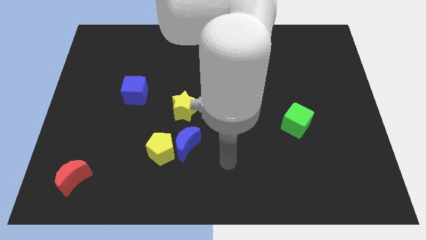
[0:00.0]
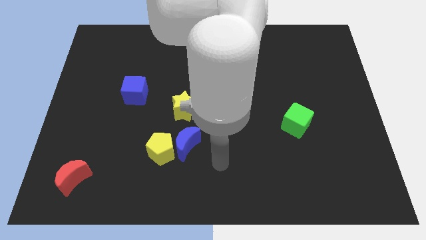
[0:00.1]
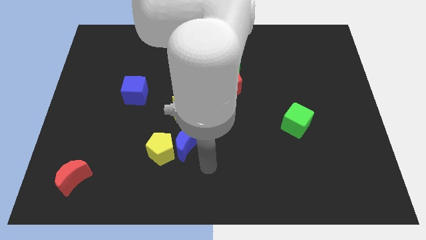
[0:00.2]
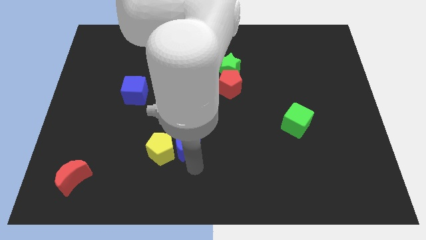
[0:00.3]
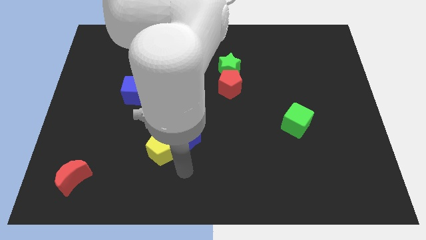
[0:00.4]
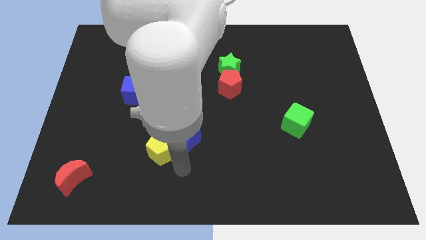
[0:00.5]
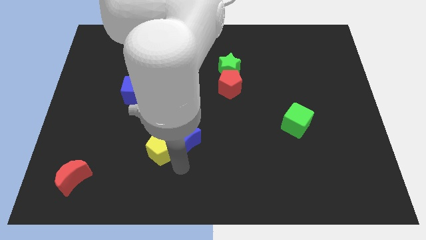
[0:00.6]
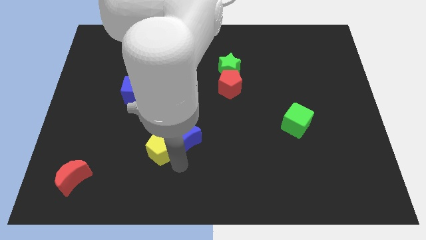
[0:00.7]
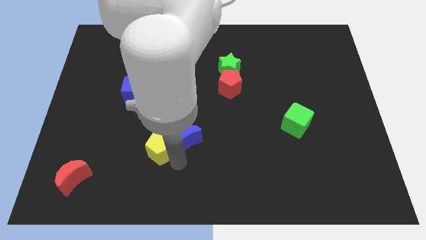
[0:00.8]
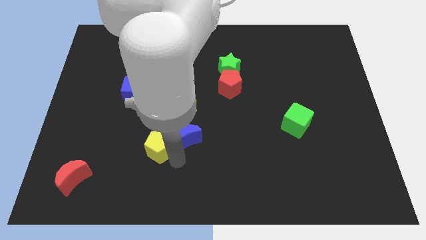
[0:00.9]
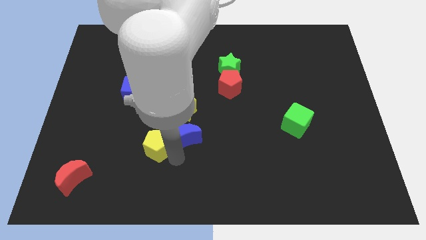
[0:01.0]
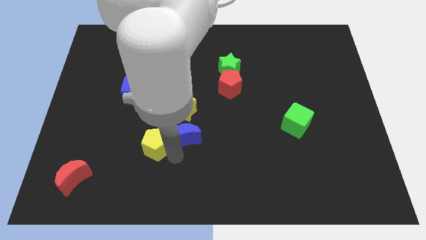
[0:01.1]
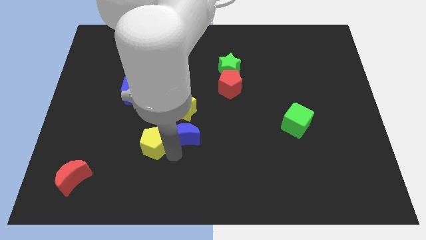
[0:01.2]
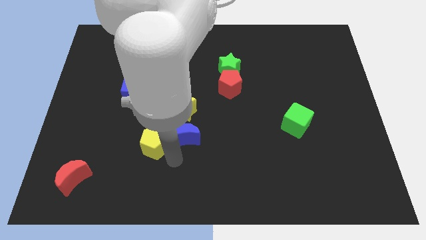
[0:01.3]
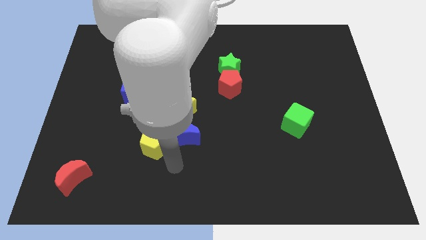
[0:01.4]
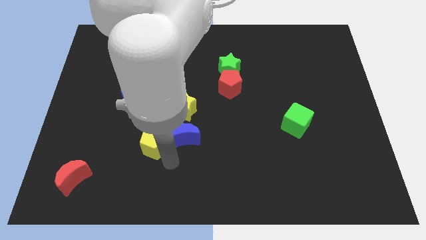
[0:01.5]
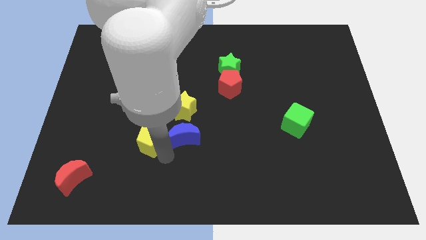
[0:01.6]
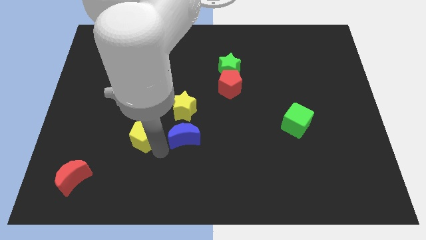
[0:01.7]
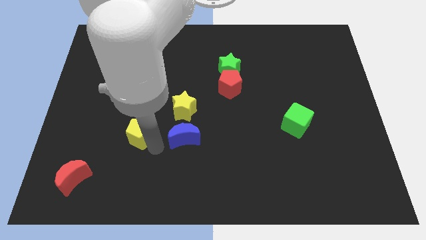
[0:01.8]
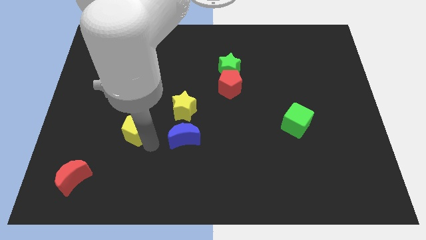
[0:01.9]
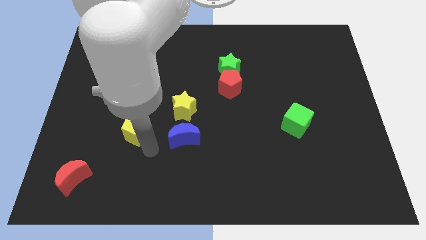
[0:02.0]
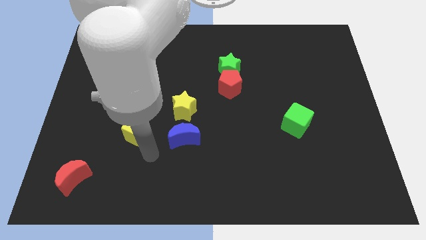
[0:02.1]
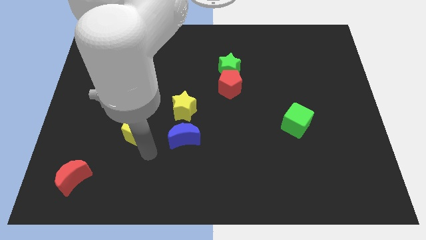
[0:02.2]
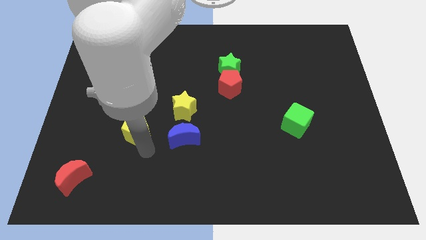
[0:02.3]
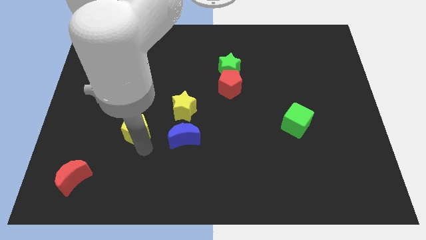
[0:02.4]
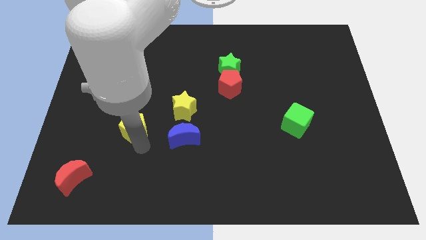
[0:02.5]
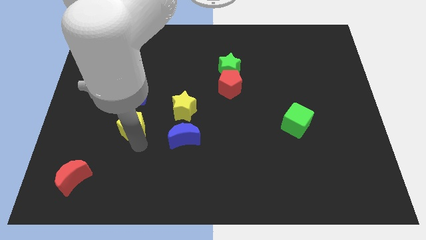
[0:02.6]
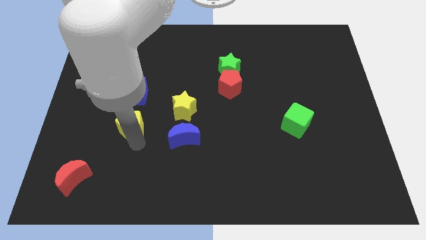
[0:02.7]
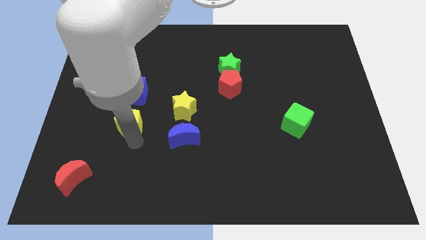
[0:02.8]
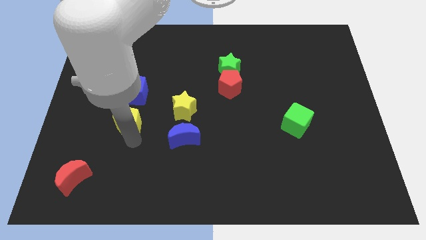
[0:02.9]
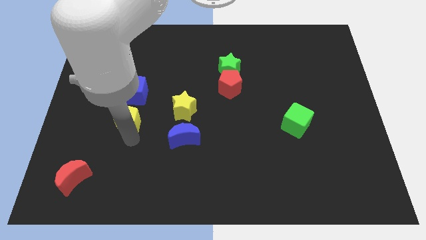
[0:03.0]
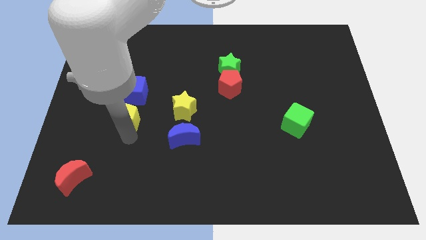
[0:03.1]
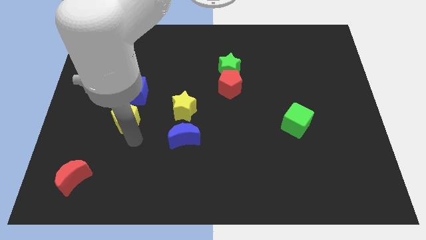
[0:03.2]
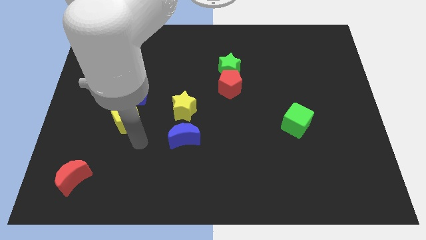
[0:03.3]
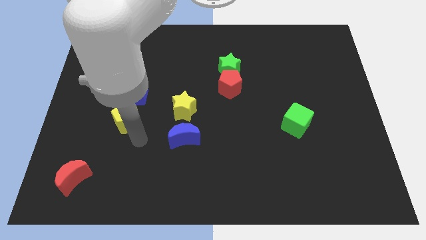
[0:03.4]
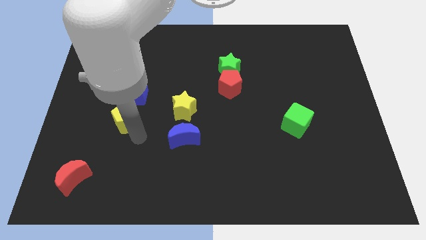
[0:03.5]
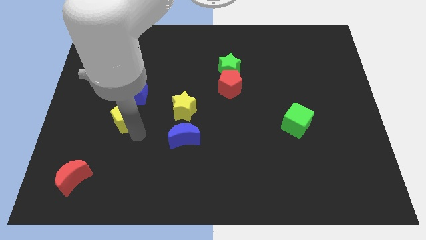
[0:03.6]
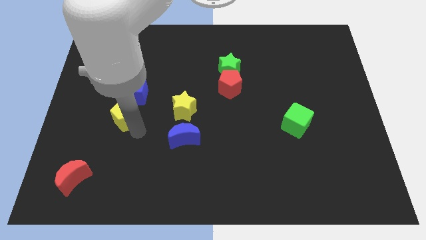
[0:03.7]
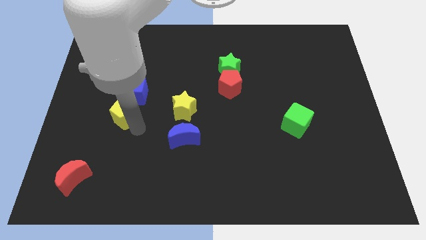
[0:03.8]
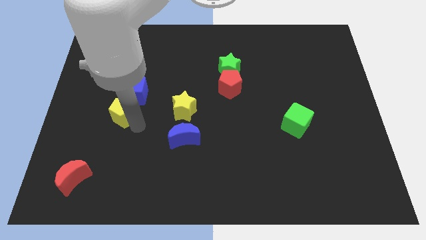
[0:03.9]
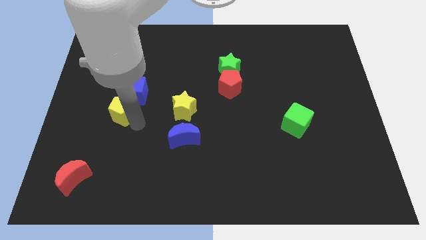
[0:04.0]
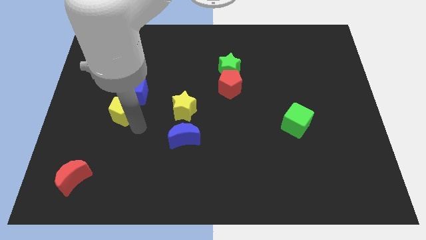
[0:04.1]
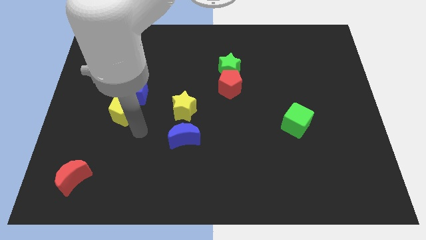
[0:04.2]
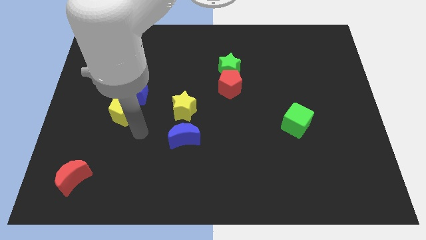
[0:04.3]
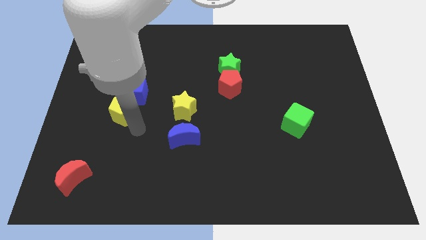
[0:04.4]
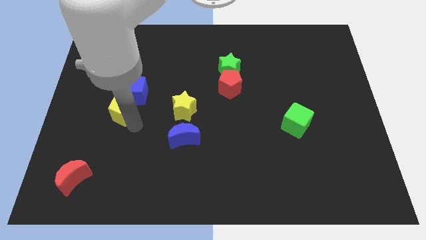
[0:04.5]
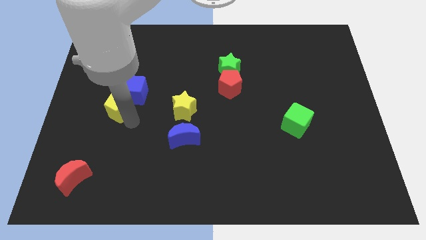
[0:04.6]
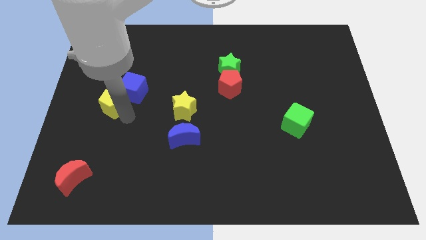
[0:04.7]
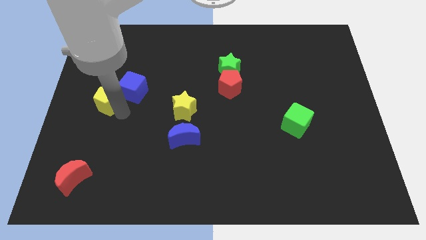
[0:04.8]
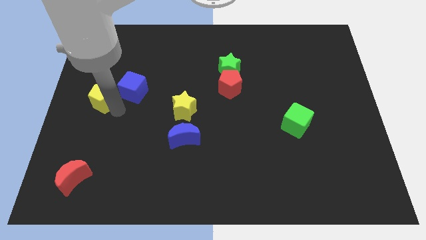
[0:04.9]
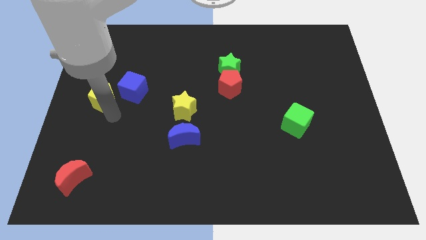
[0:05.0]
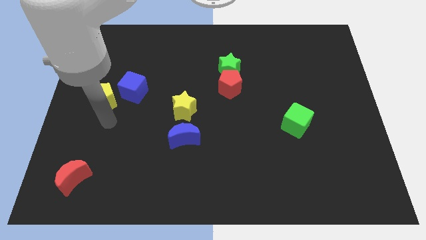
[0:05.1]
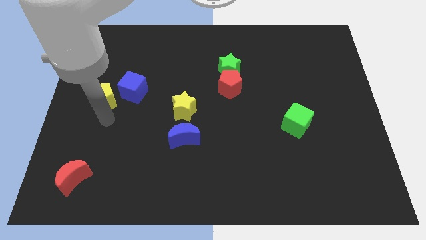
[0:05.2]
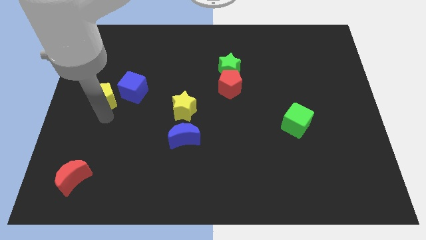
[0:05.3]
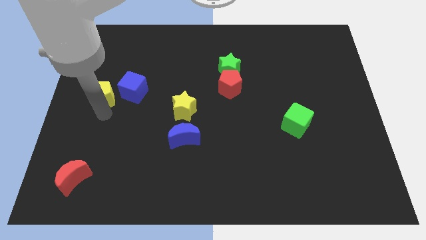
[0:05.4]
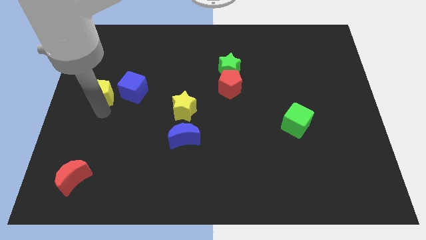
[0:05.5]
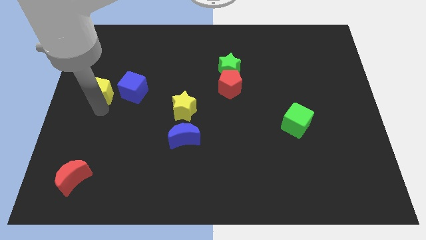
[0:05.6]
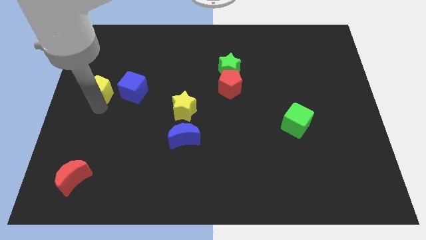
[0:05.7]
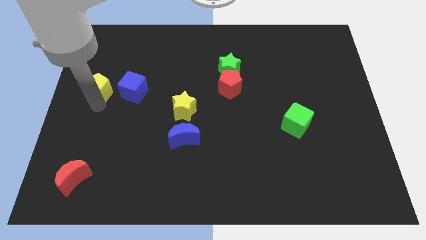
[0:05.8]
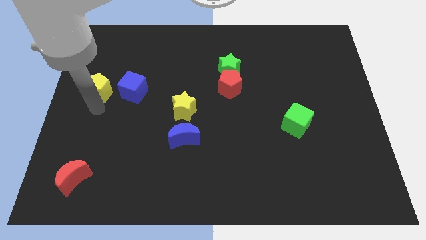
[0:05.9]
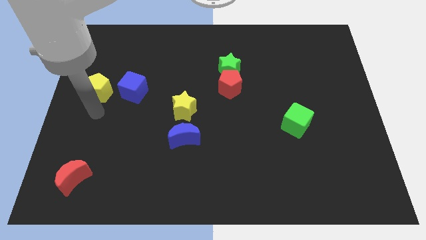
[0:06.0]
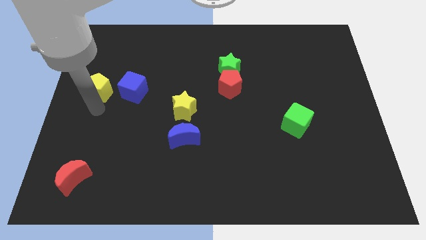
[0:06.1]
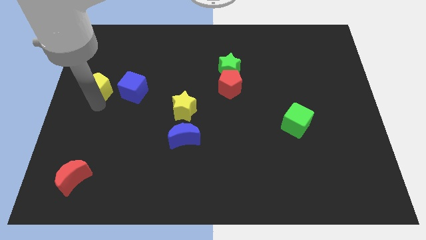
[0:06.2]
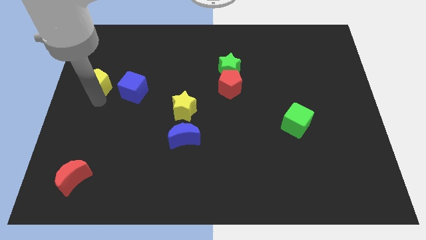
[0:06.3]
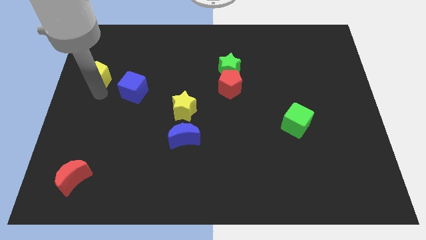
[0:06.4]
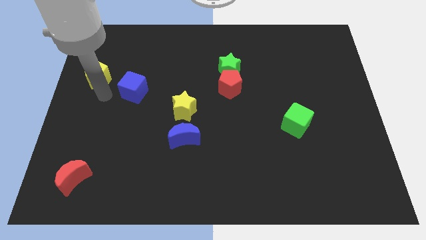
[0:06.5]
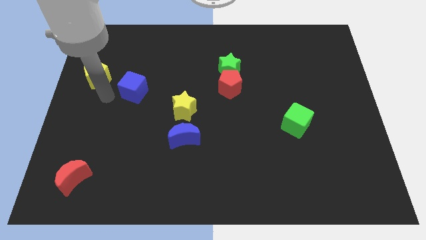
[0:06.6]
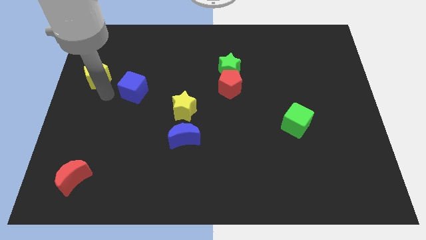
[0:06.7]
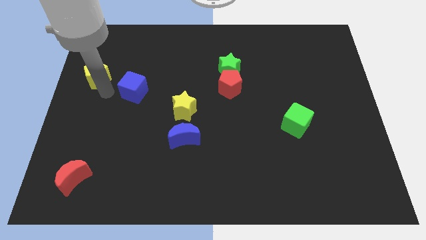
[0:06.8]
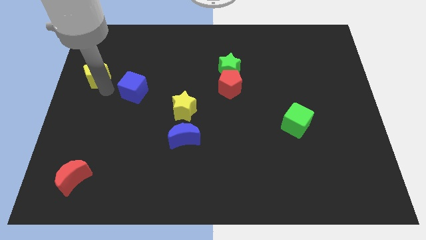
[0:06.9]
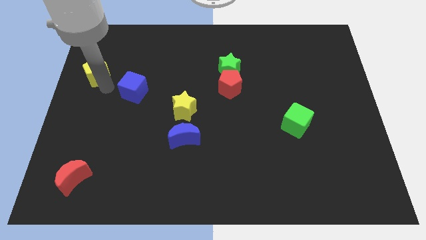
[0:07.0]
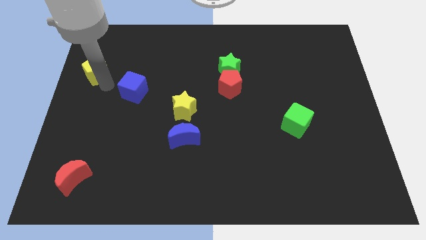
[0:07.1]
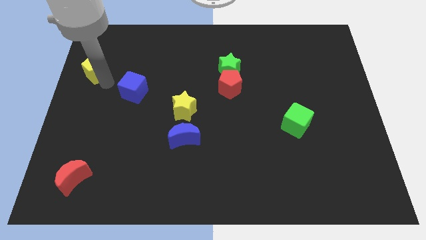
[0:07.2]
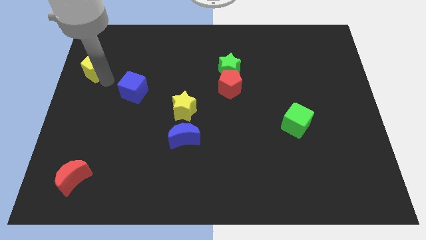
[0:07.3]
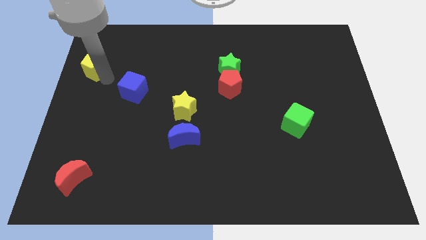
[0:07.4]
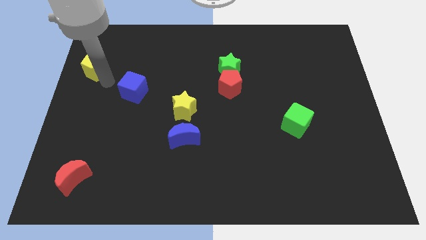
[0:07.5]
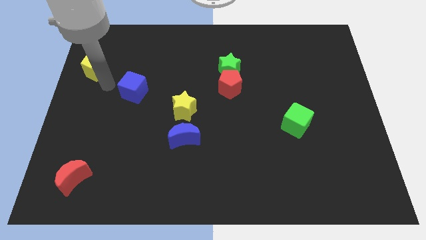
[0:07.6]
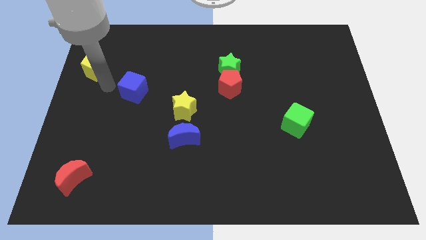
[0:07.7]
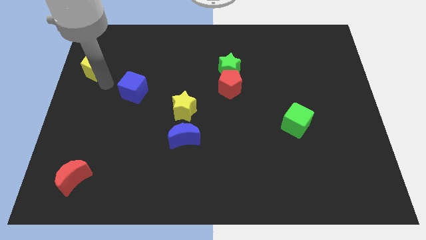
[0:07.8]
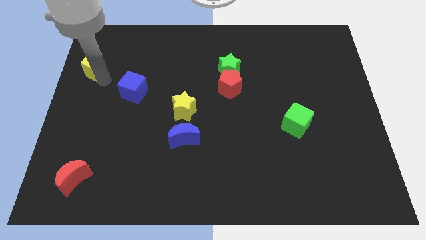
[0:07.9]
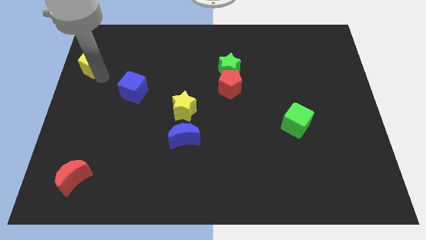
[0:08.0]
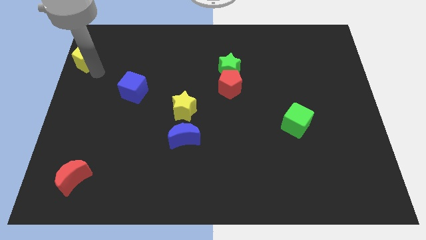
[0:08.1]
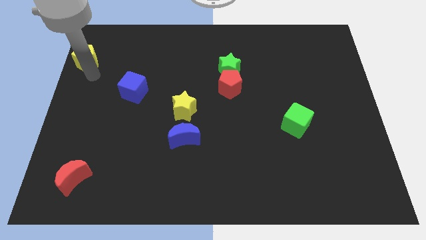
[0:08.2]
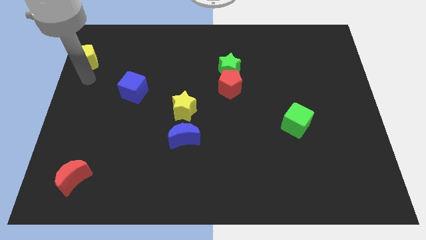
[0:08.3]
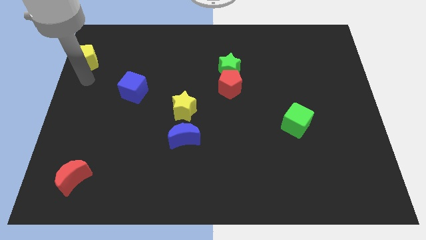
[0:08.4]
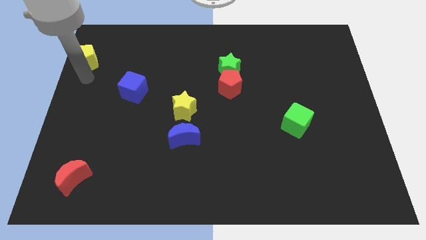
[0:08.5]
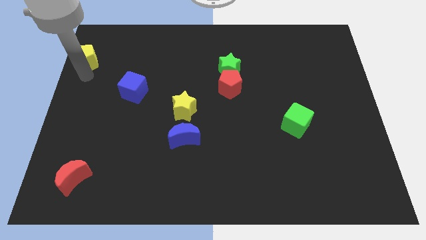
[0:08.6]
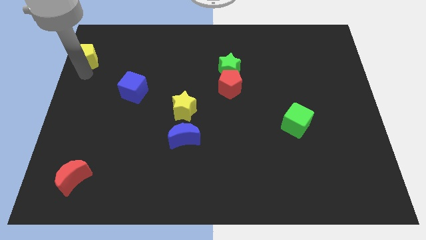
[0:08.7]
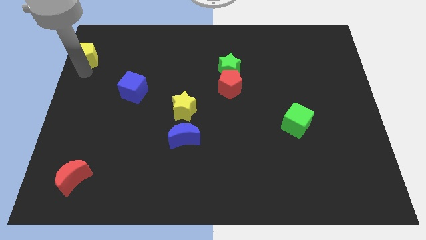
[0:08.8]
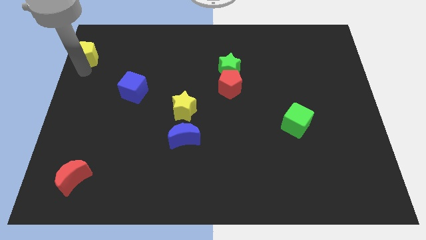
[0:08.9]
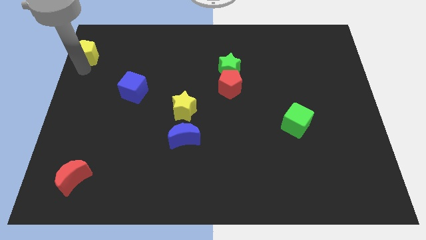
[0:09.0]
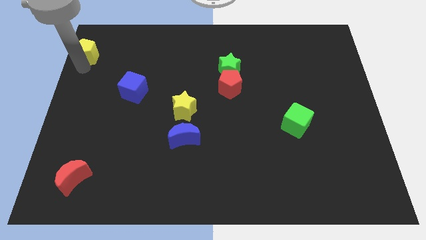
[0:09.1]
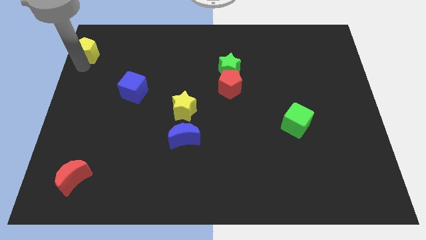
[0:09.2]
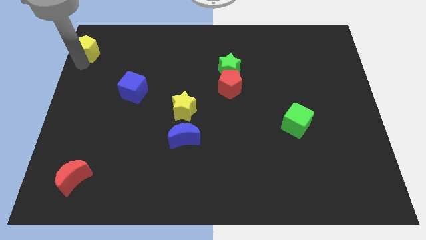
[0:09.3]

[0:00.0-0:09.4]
put the yellow pentagon to the top left corner
